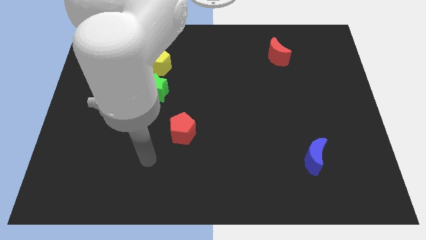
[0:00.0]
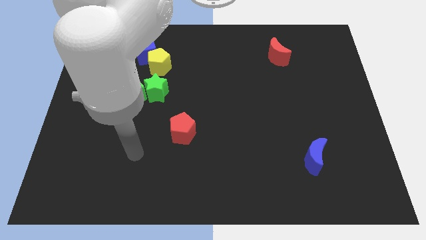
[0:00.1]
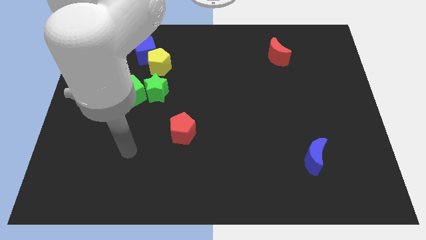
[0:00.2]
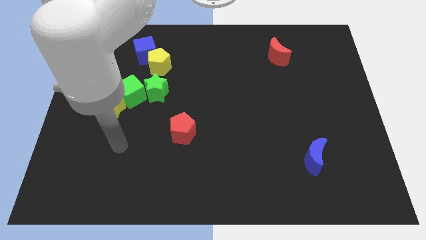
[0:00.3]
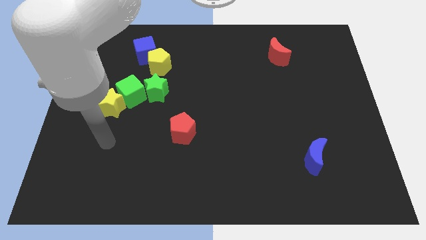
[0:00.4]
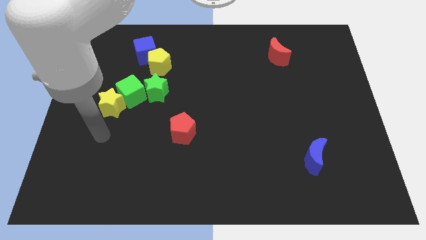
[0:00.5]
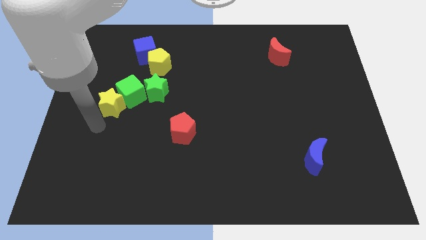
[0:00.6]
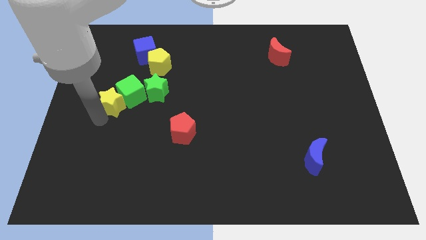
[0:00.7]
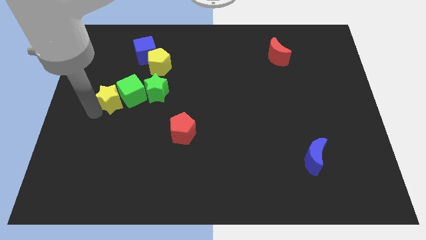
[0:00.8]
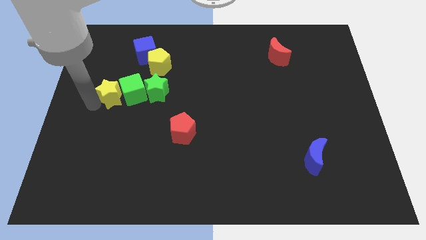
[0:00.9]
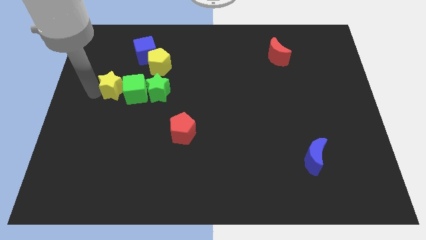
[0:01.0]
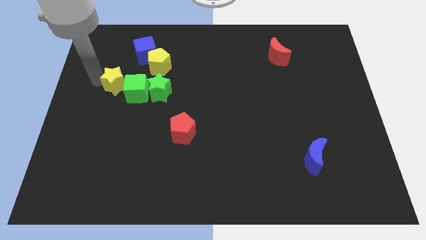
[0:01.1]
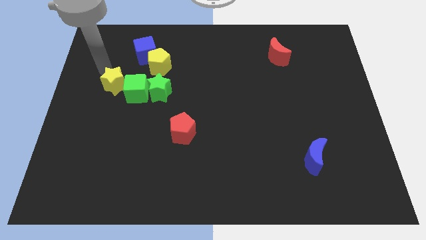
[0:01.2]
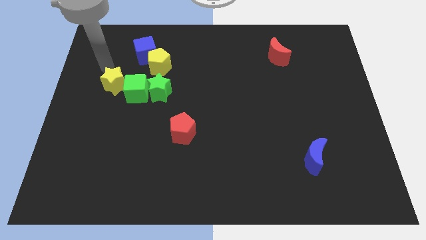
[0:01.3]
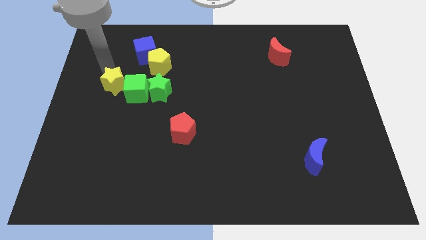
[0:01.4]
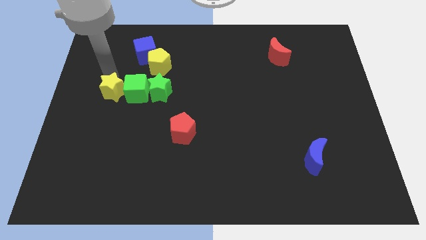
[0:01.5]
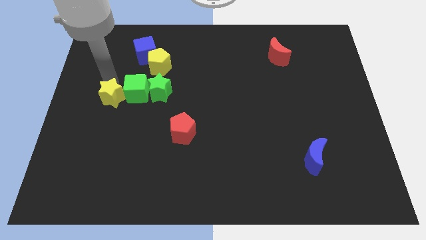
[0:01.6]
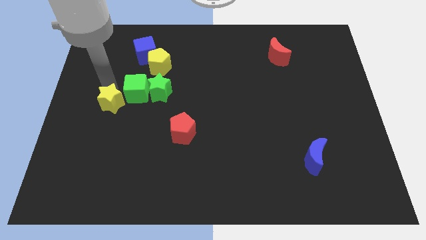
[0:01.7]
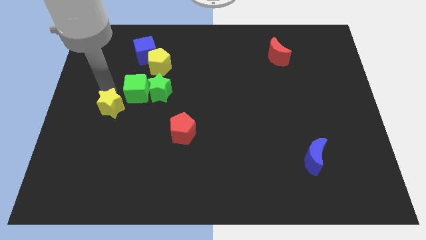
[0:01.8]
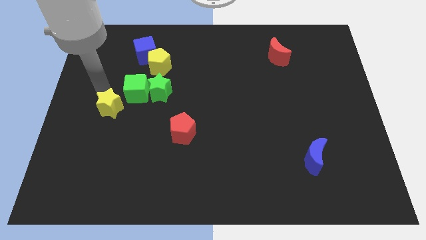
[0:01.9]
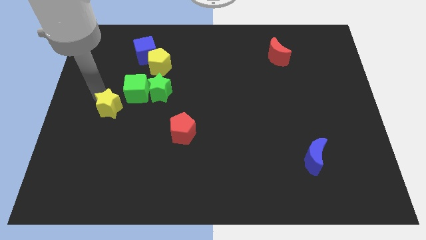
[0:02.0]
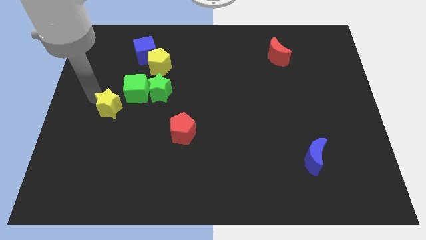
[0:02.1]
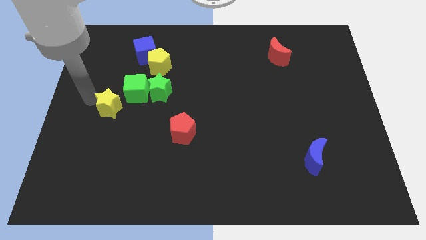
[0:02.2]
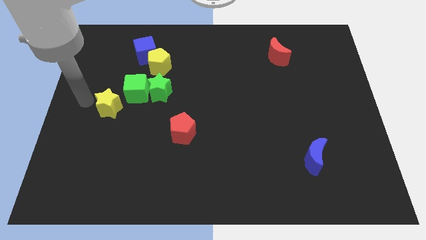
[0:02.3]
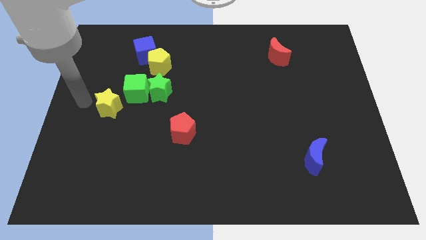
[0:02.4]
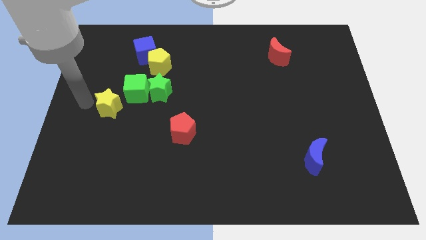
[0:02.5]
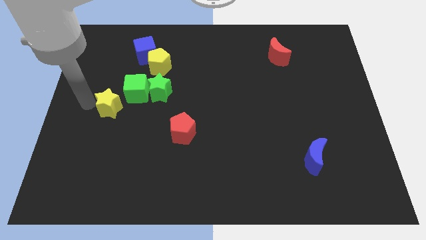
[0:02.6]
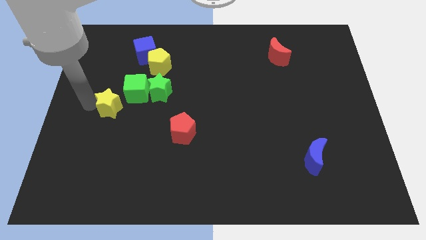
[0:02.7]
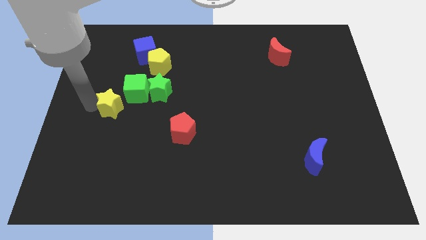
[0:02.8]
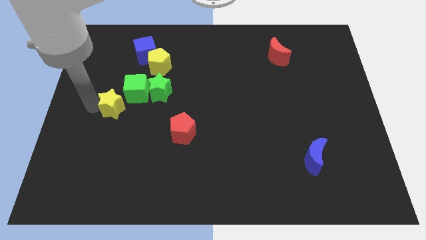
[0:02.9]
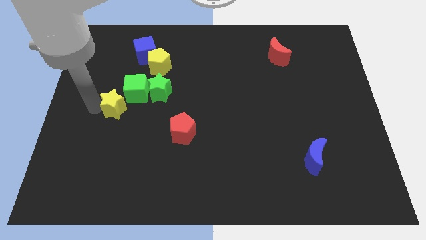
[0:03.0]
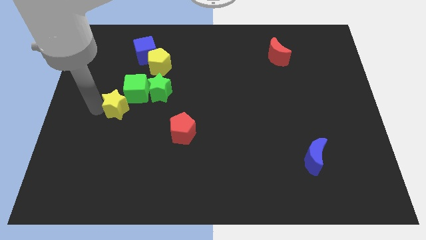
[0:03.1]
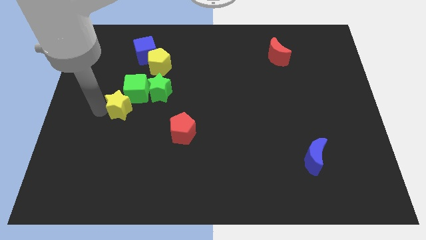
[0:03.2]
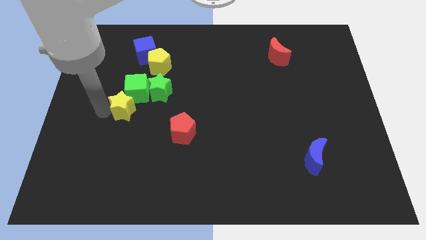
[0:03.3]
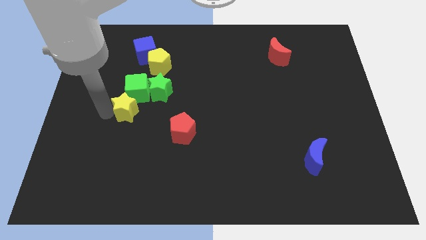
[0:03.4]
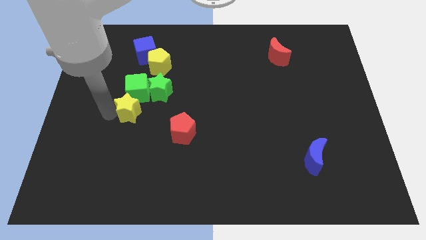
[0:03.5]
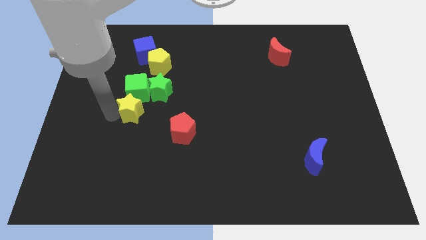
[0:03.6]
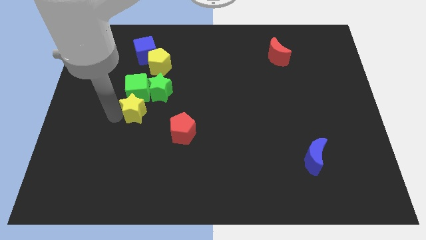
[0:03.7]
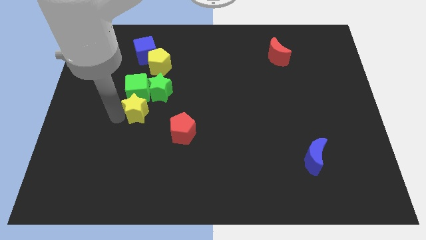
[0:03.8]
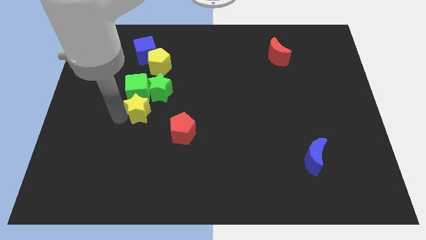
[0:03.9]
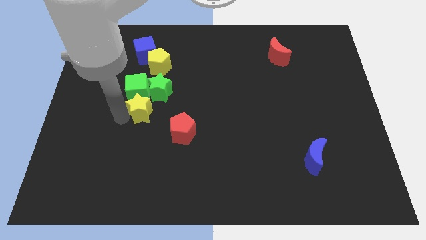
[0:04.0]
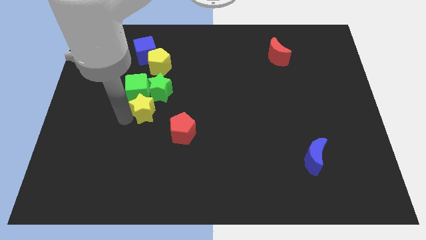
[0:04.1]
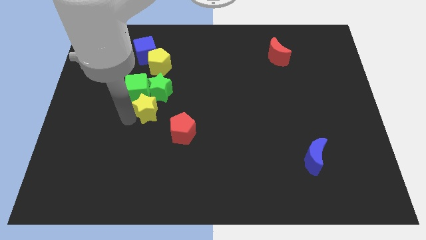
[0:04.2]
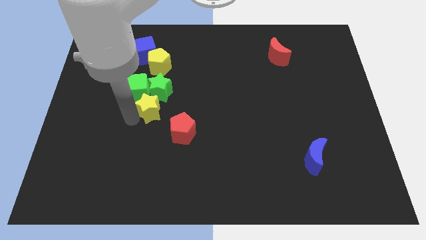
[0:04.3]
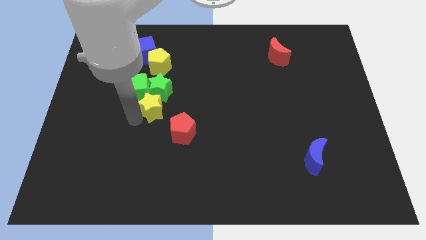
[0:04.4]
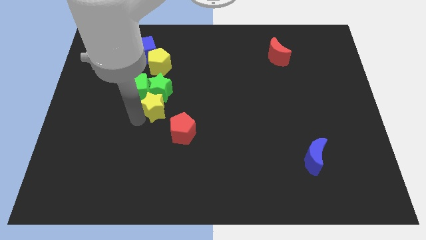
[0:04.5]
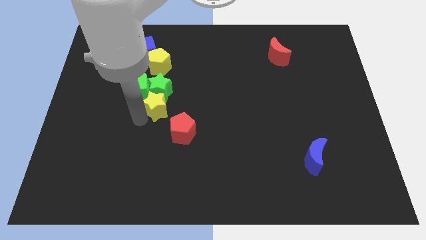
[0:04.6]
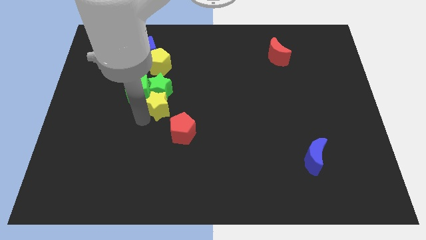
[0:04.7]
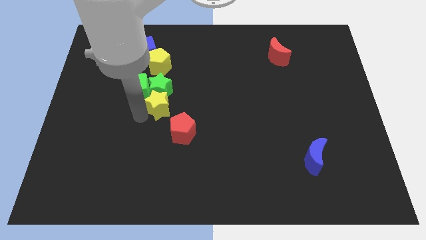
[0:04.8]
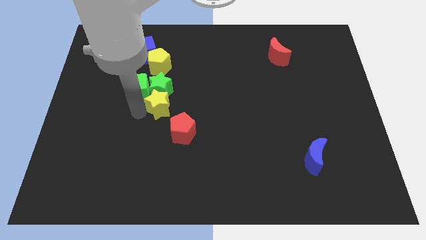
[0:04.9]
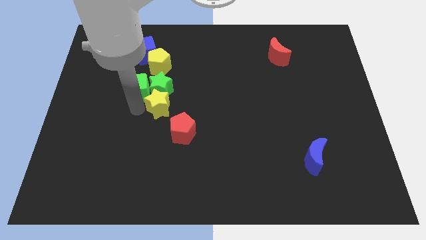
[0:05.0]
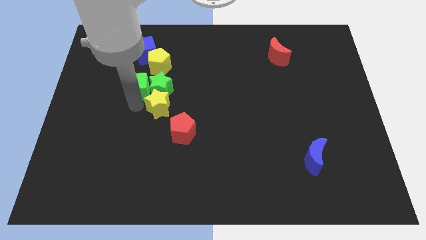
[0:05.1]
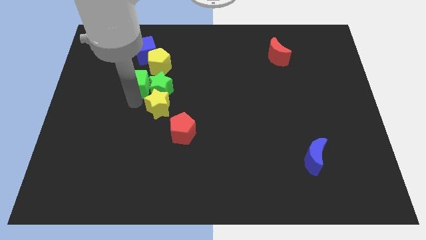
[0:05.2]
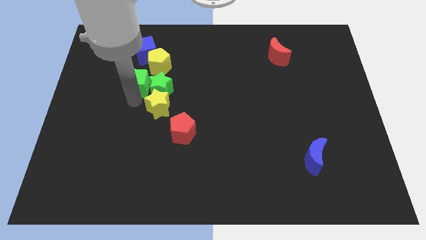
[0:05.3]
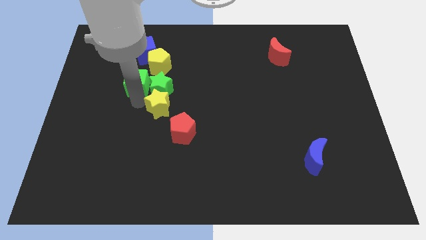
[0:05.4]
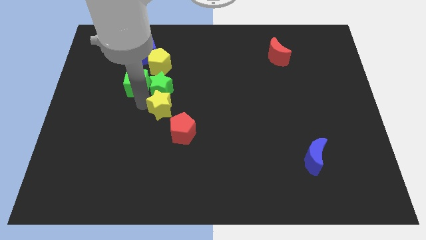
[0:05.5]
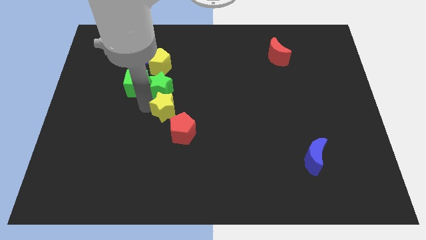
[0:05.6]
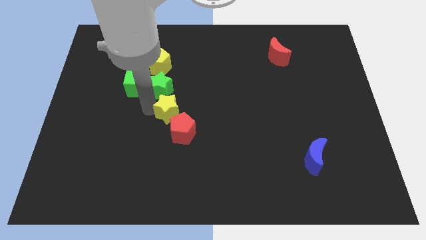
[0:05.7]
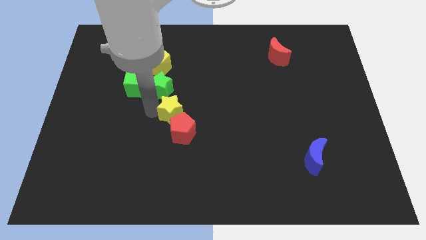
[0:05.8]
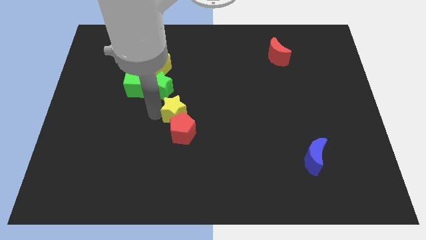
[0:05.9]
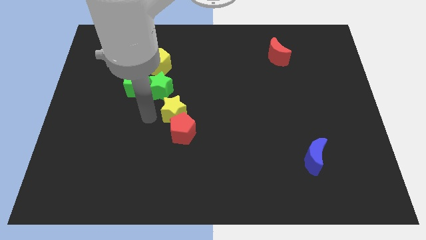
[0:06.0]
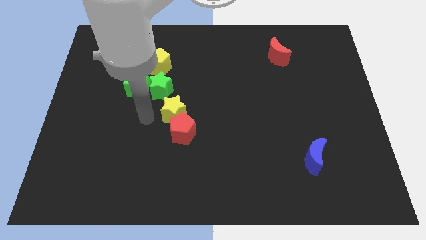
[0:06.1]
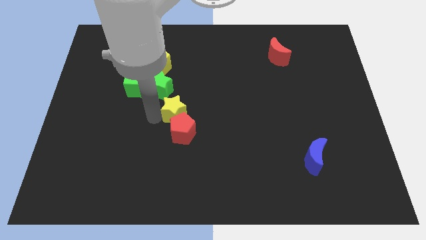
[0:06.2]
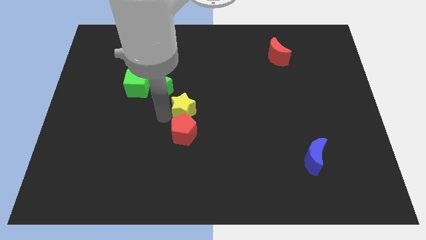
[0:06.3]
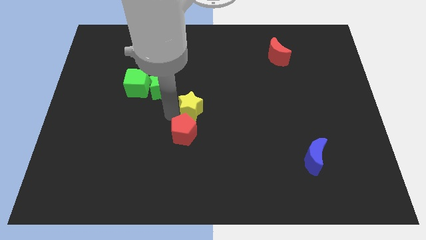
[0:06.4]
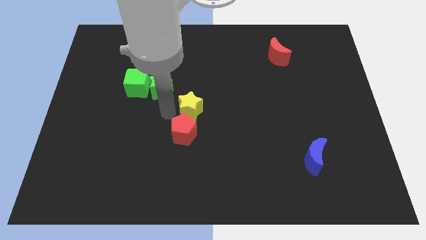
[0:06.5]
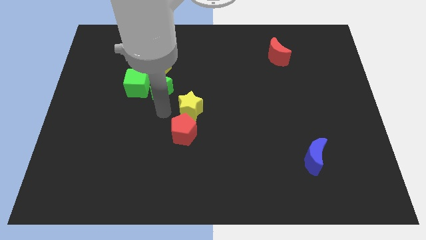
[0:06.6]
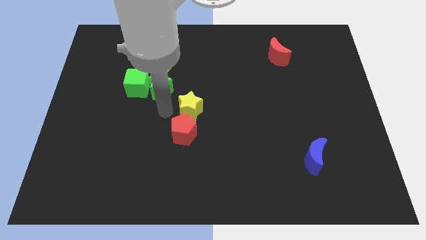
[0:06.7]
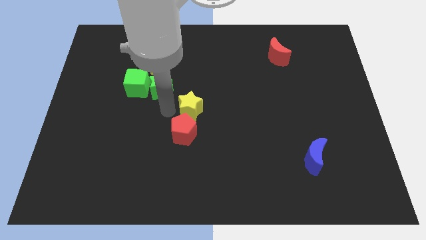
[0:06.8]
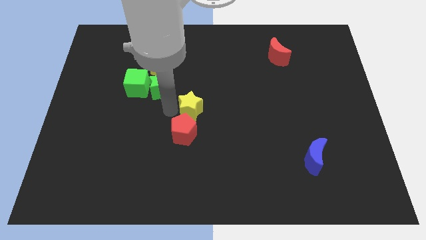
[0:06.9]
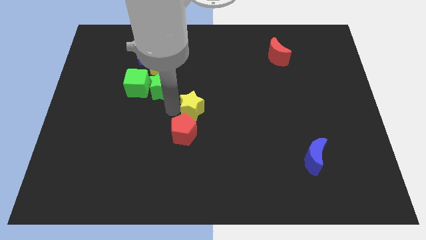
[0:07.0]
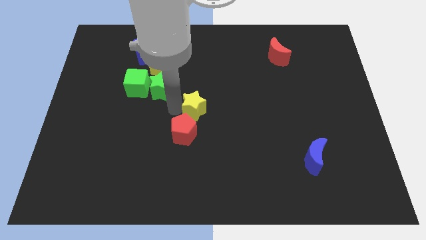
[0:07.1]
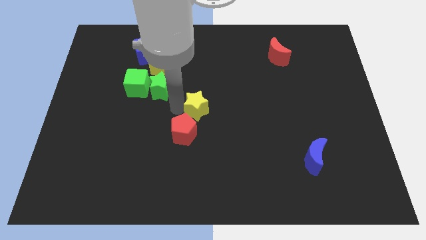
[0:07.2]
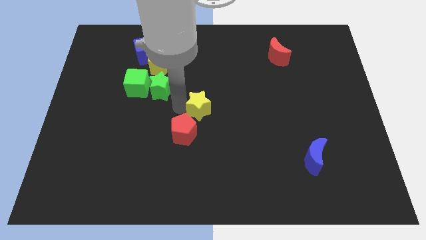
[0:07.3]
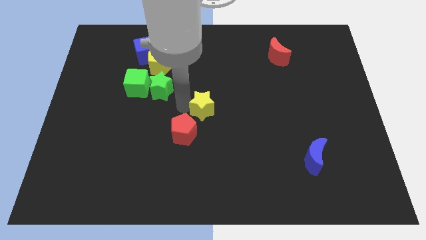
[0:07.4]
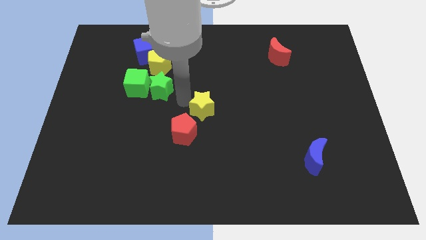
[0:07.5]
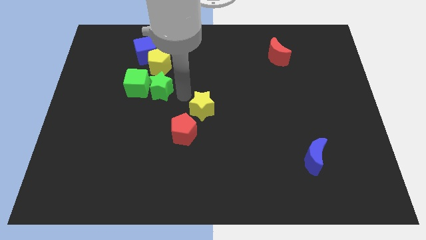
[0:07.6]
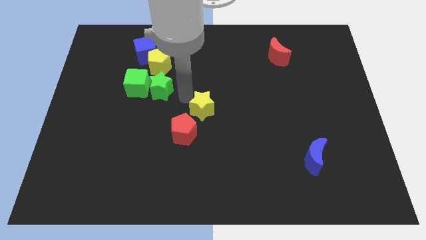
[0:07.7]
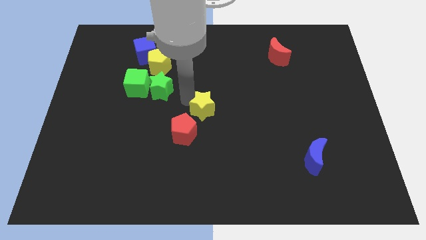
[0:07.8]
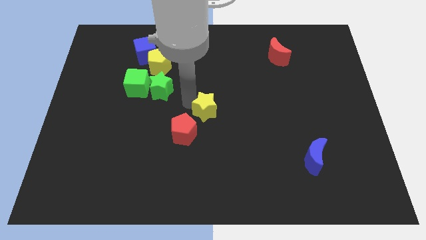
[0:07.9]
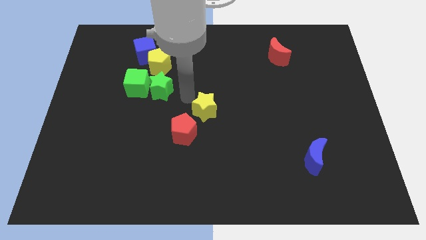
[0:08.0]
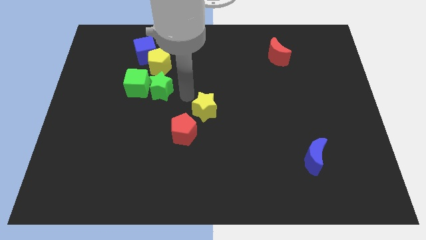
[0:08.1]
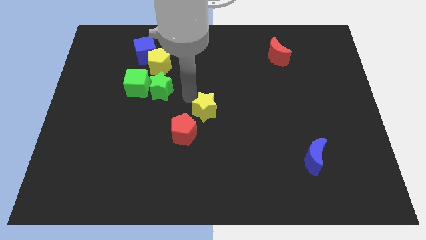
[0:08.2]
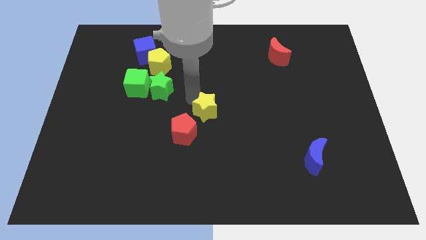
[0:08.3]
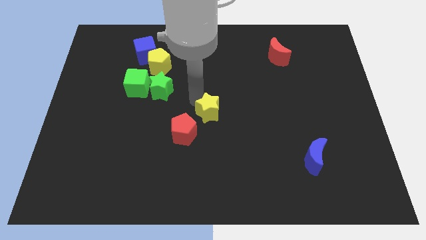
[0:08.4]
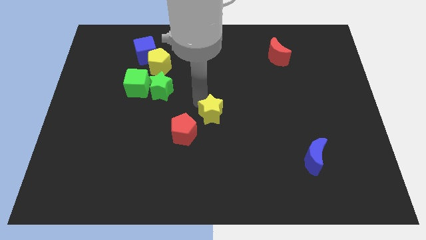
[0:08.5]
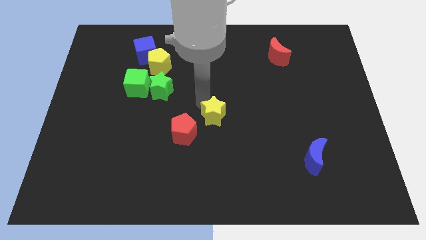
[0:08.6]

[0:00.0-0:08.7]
move the yellow star to the right of the red pentagon
